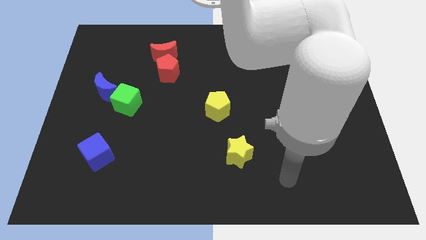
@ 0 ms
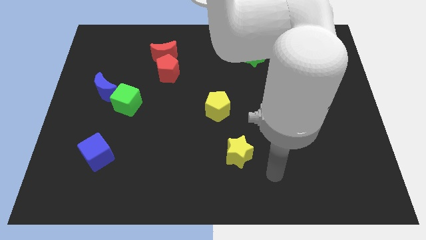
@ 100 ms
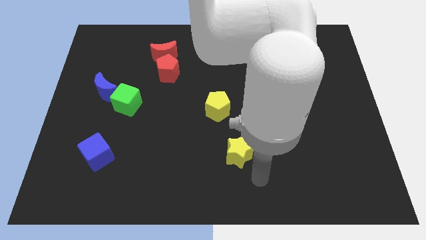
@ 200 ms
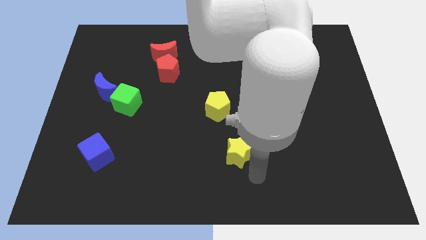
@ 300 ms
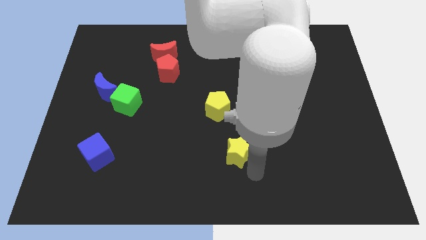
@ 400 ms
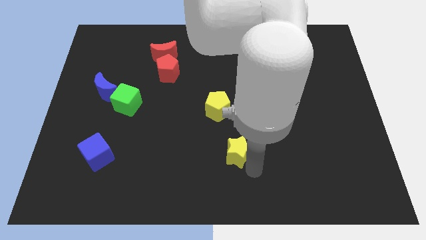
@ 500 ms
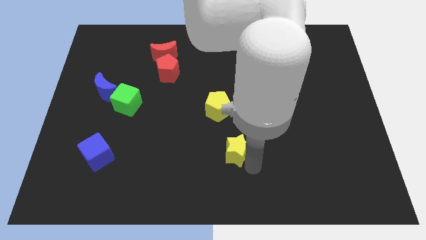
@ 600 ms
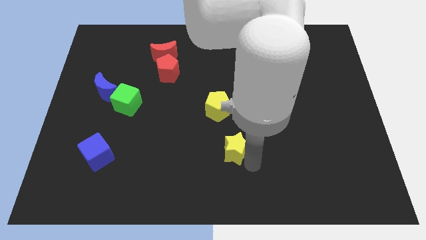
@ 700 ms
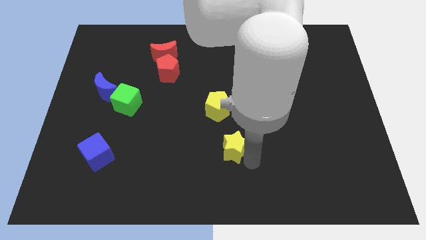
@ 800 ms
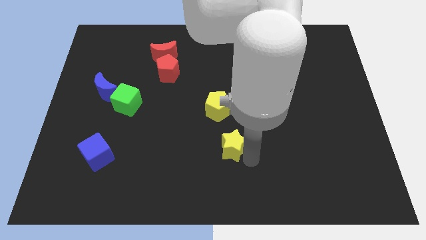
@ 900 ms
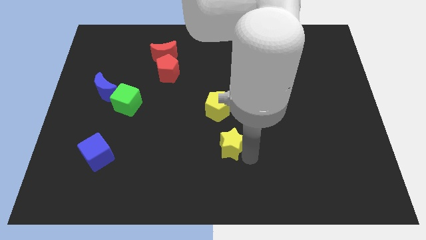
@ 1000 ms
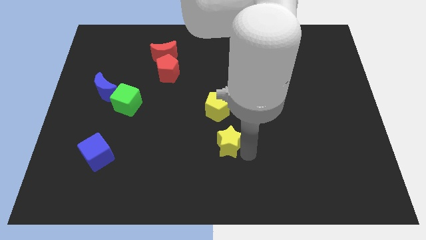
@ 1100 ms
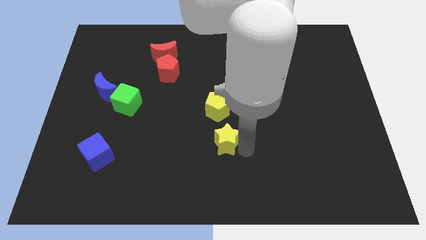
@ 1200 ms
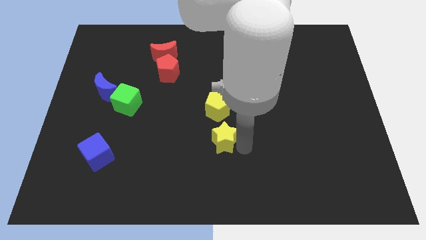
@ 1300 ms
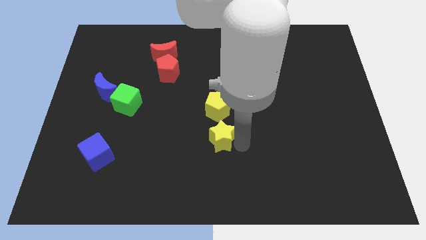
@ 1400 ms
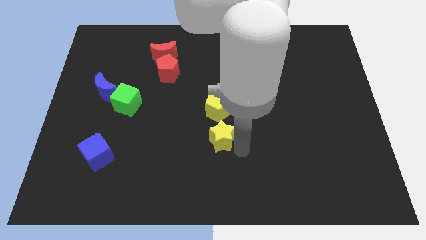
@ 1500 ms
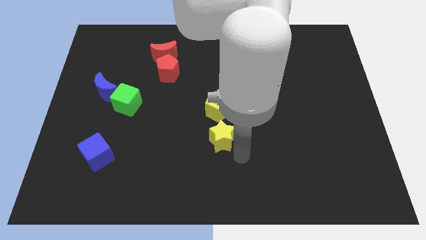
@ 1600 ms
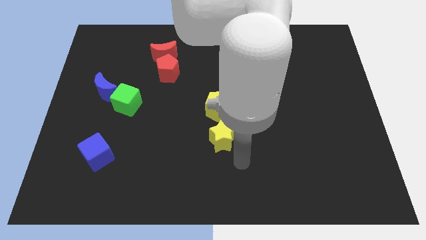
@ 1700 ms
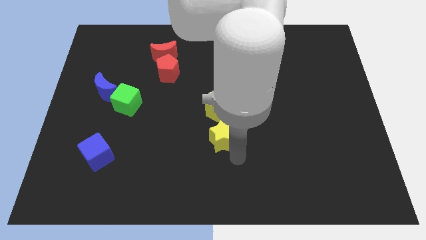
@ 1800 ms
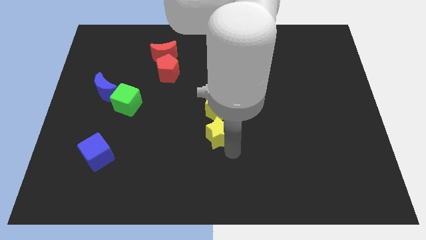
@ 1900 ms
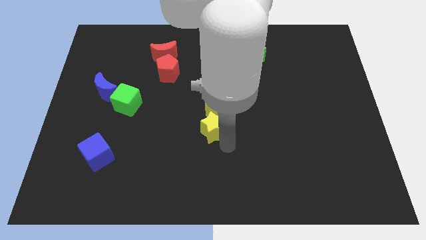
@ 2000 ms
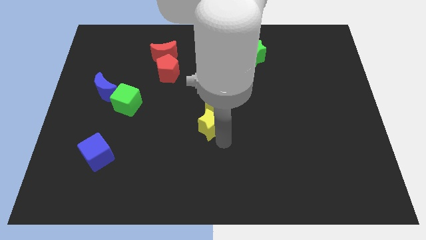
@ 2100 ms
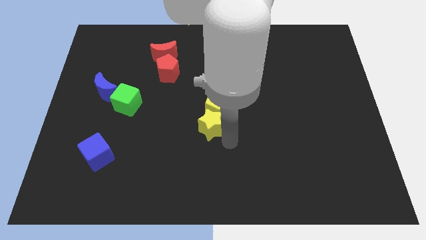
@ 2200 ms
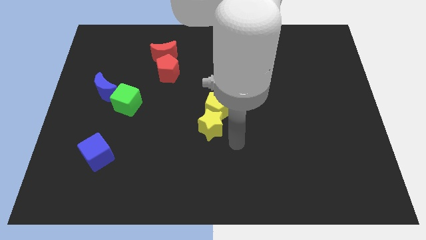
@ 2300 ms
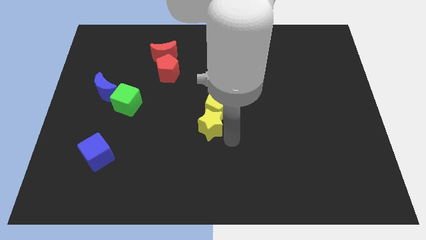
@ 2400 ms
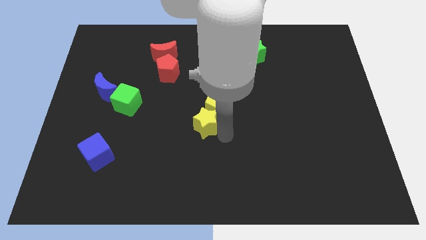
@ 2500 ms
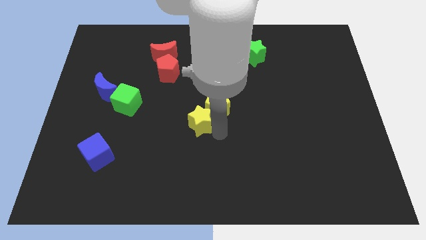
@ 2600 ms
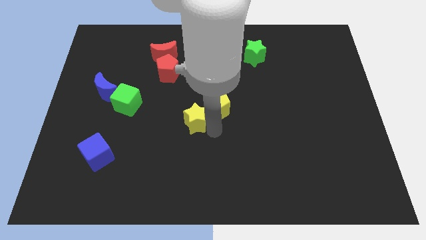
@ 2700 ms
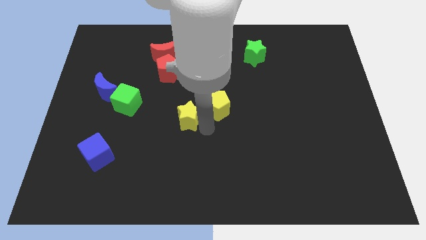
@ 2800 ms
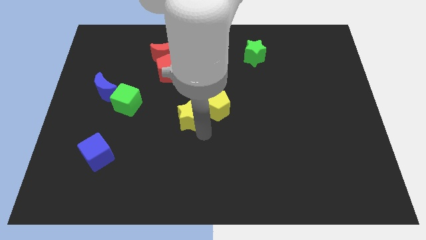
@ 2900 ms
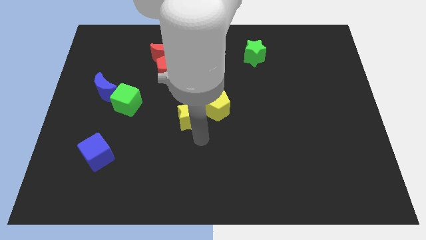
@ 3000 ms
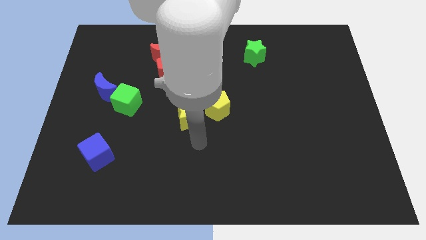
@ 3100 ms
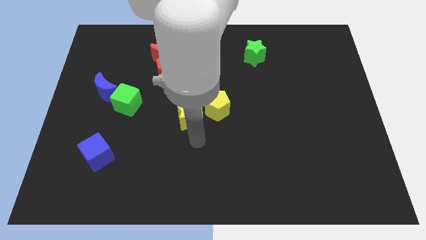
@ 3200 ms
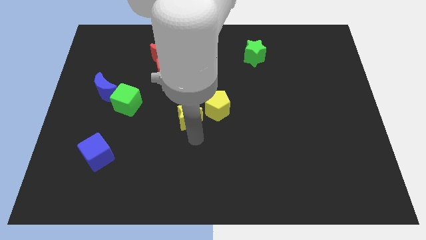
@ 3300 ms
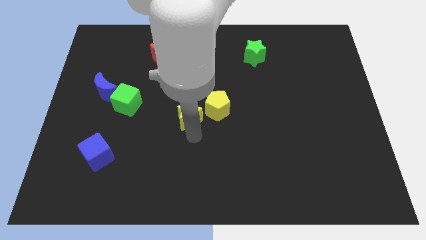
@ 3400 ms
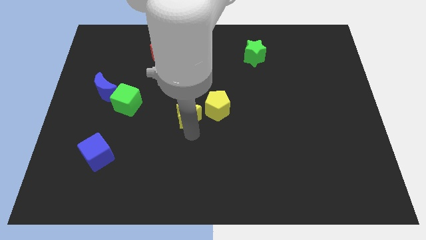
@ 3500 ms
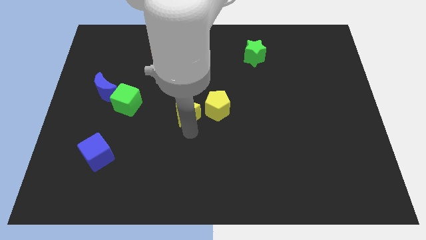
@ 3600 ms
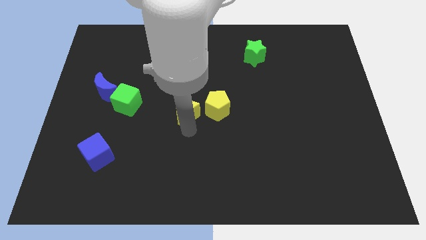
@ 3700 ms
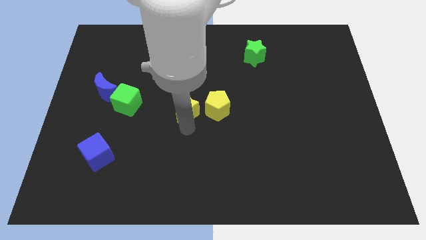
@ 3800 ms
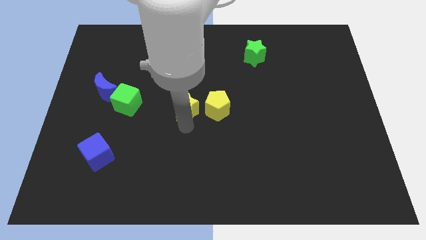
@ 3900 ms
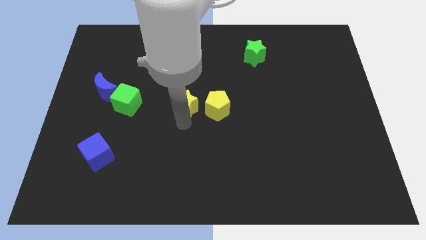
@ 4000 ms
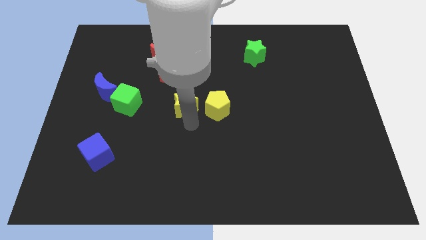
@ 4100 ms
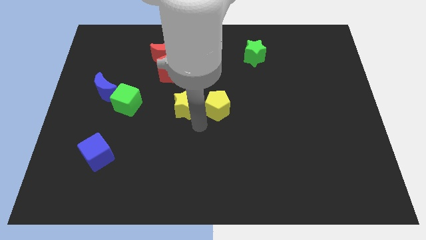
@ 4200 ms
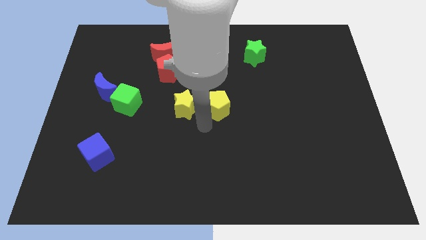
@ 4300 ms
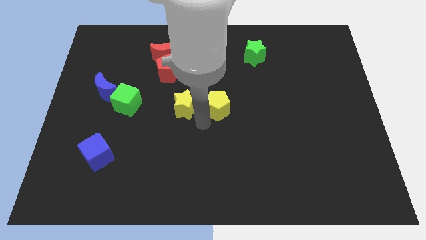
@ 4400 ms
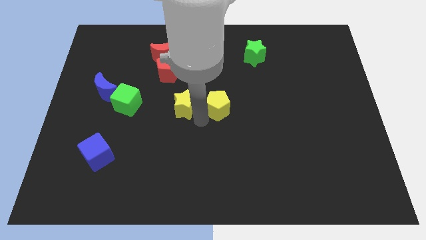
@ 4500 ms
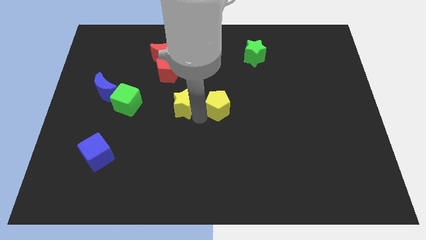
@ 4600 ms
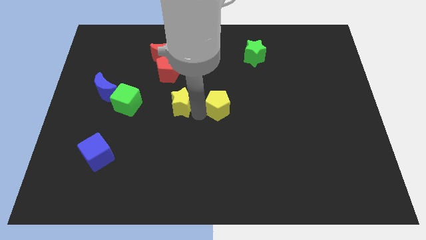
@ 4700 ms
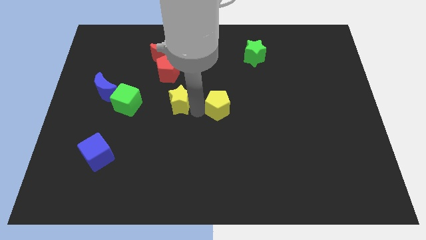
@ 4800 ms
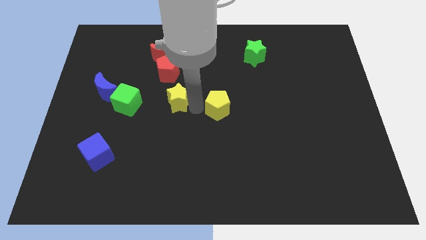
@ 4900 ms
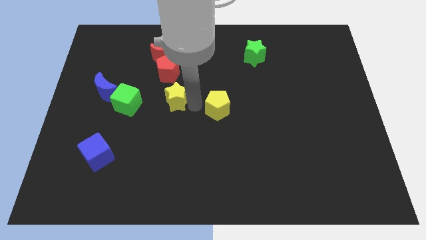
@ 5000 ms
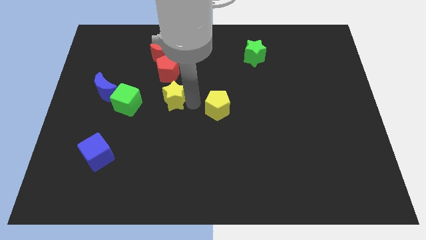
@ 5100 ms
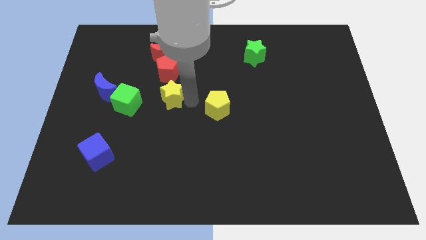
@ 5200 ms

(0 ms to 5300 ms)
slide the yellow star to the bottom of the red moon

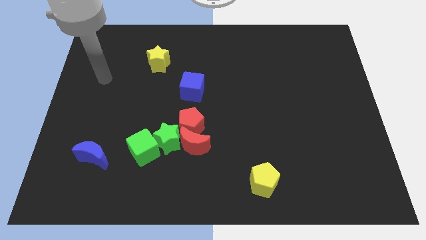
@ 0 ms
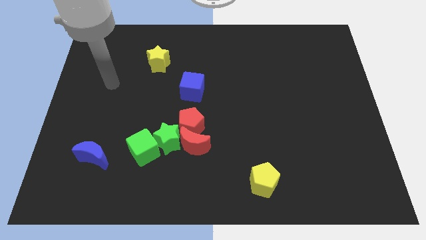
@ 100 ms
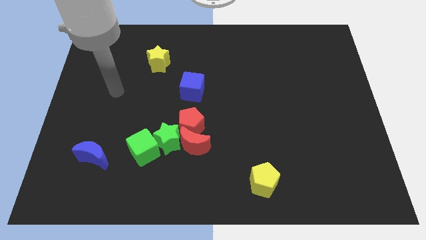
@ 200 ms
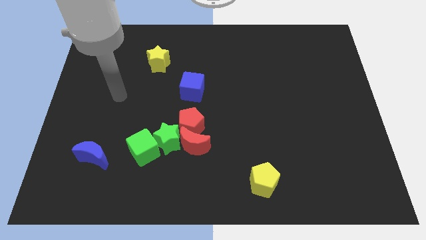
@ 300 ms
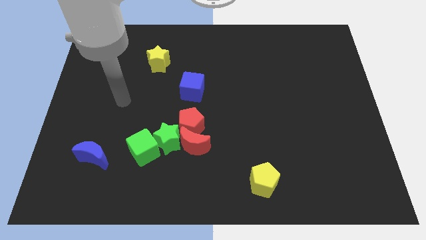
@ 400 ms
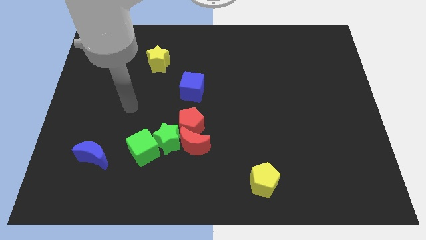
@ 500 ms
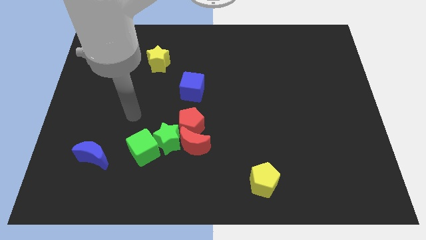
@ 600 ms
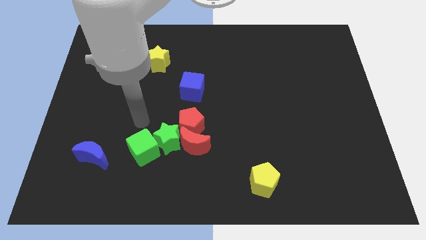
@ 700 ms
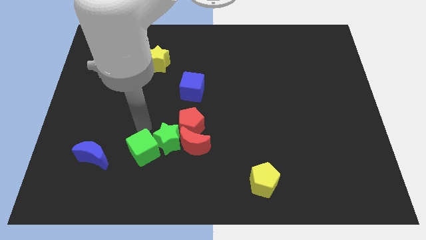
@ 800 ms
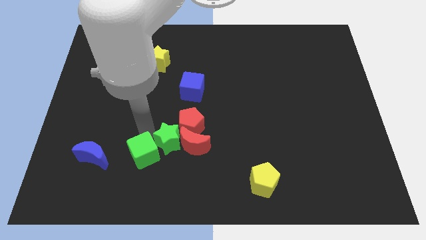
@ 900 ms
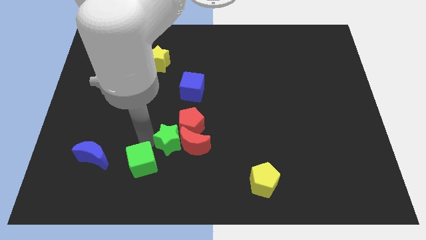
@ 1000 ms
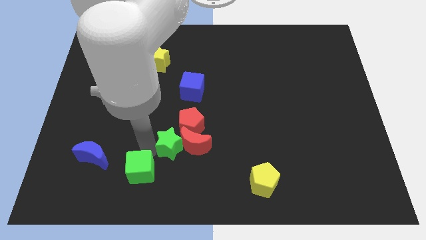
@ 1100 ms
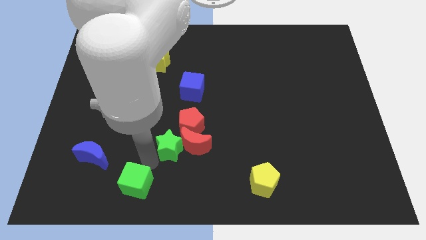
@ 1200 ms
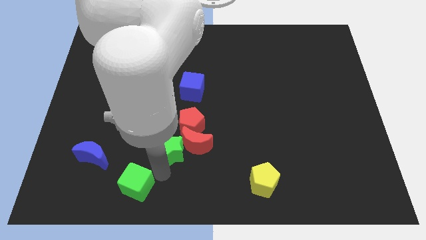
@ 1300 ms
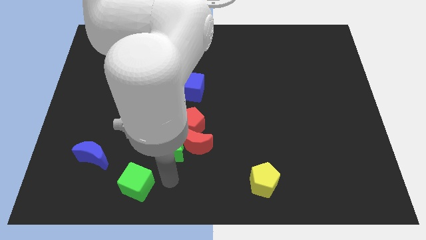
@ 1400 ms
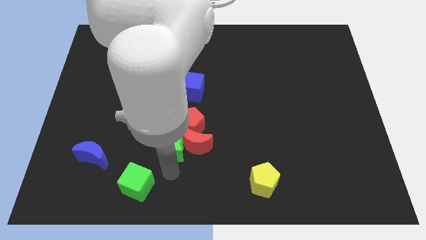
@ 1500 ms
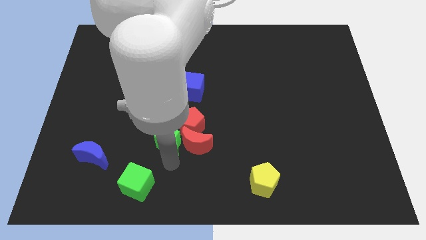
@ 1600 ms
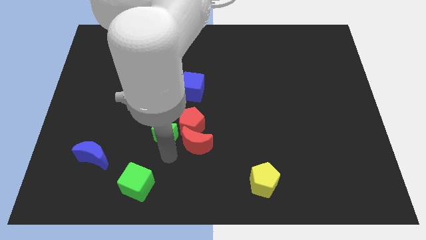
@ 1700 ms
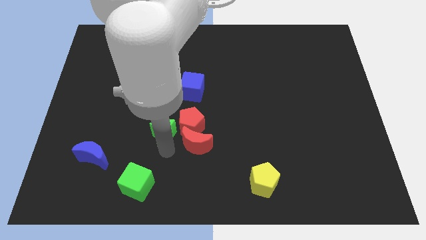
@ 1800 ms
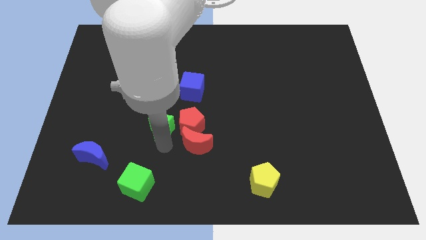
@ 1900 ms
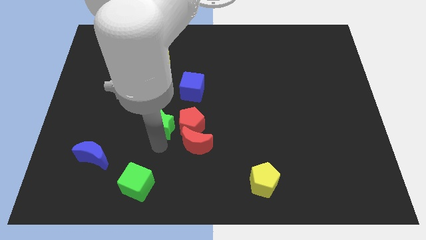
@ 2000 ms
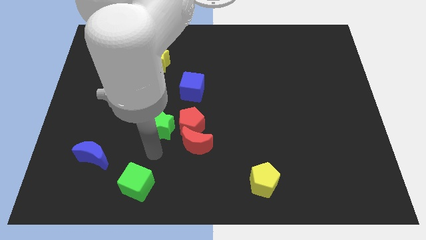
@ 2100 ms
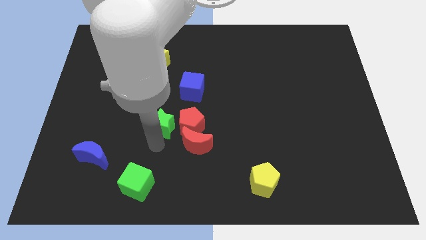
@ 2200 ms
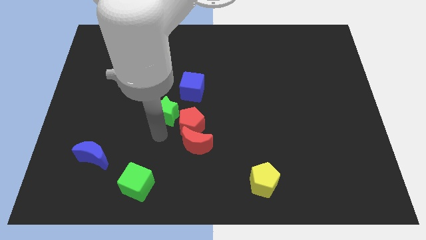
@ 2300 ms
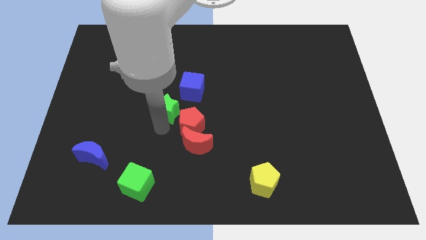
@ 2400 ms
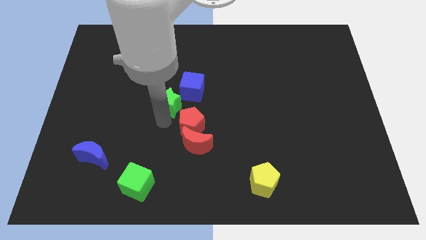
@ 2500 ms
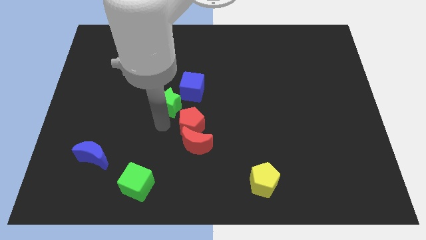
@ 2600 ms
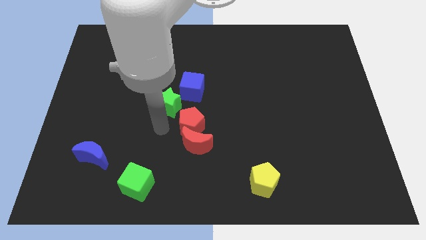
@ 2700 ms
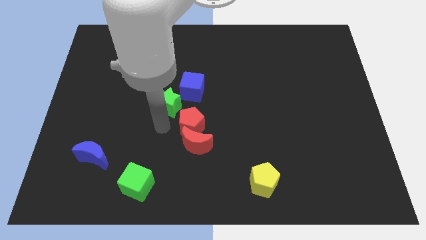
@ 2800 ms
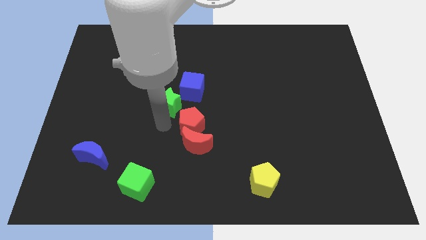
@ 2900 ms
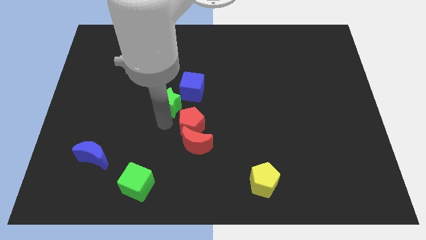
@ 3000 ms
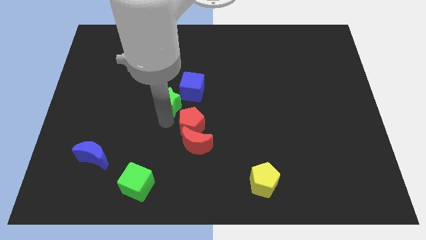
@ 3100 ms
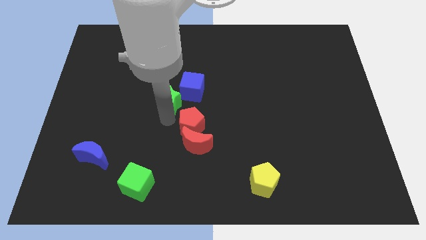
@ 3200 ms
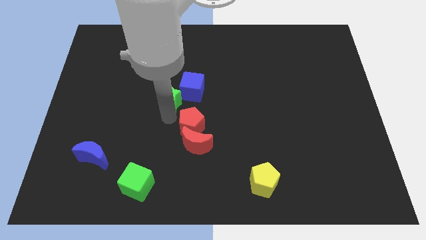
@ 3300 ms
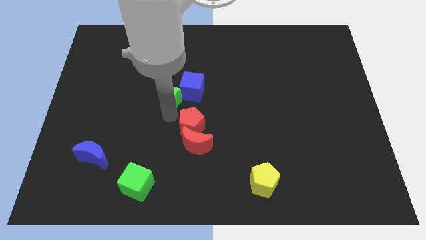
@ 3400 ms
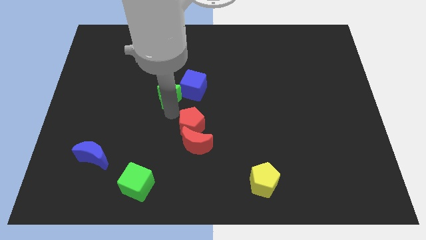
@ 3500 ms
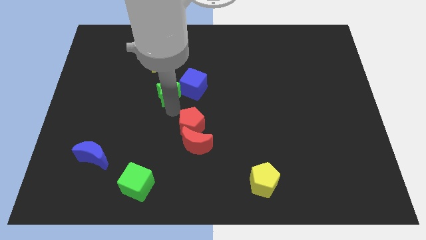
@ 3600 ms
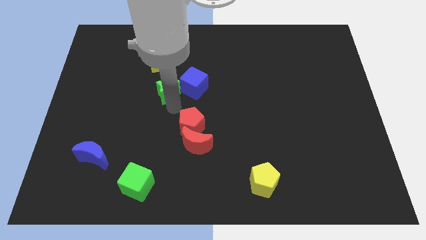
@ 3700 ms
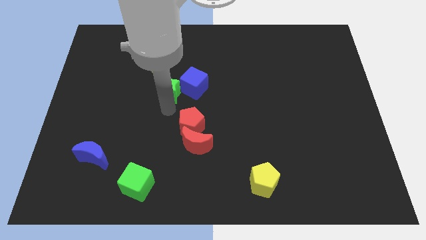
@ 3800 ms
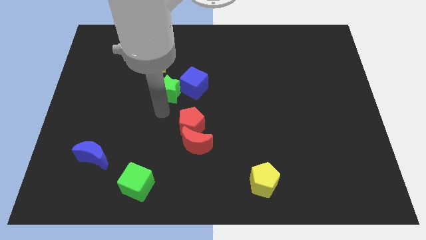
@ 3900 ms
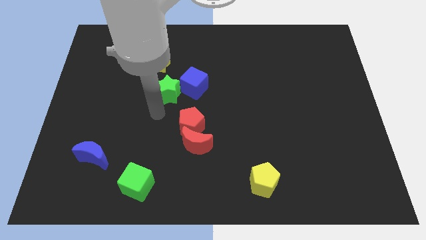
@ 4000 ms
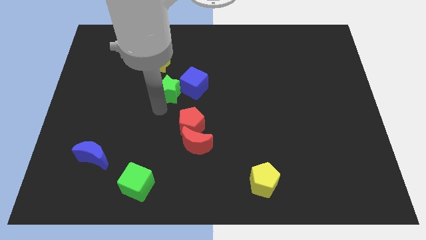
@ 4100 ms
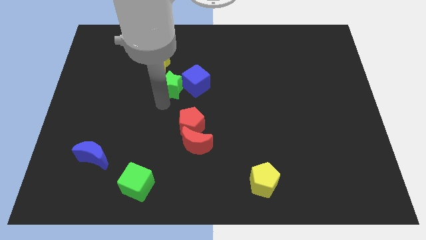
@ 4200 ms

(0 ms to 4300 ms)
put the green star diagonally down and to the right of the yellow star
